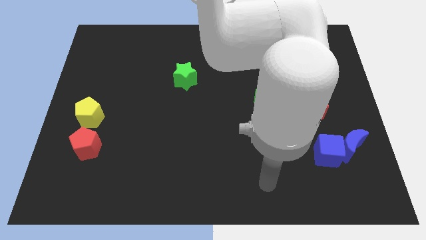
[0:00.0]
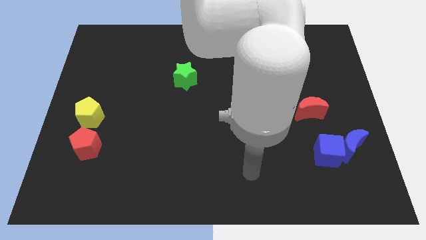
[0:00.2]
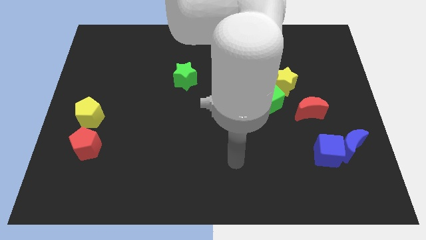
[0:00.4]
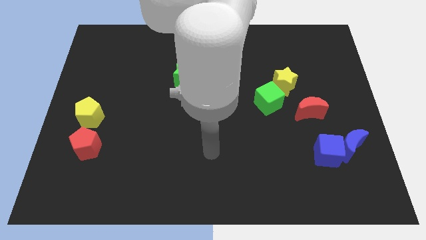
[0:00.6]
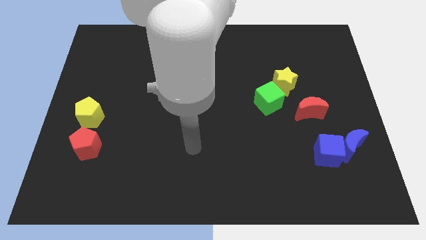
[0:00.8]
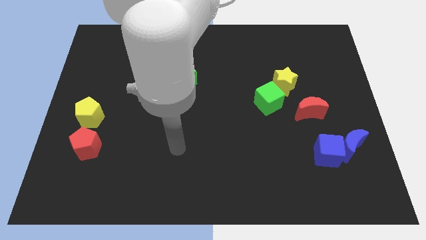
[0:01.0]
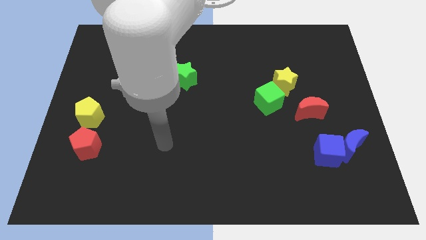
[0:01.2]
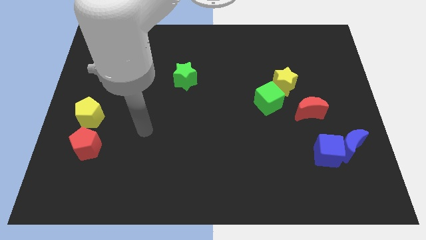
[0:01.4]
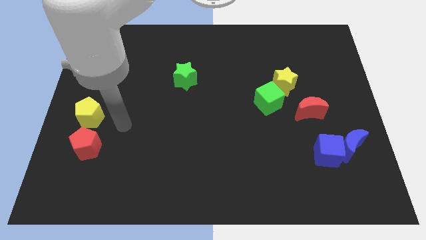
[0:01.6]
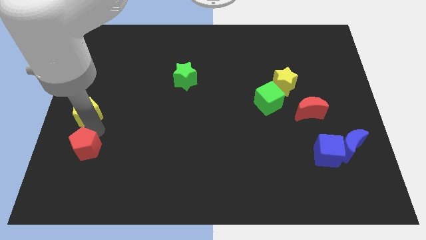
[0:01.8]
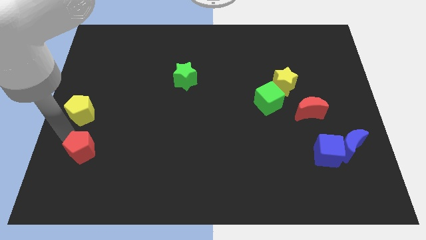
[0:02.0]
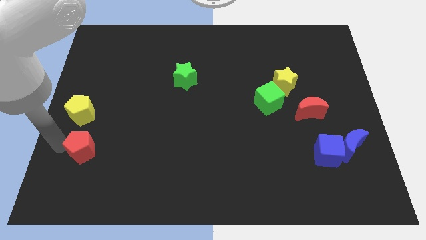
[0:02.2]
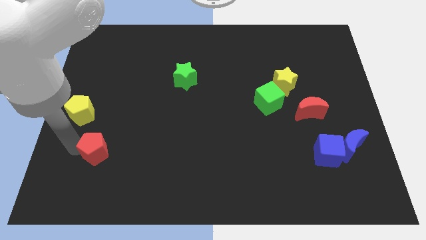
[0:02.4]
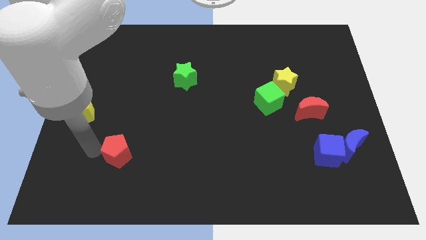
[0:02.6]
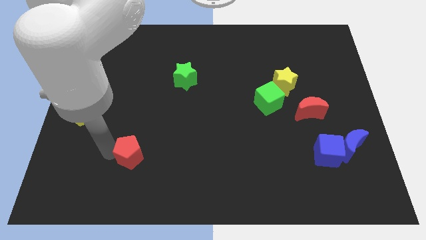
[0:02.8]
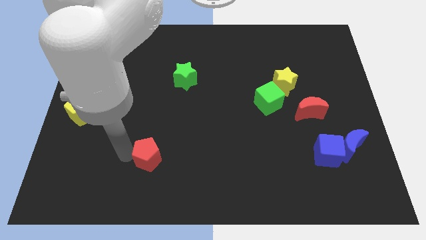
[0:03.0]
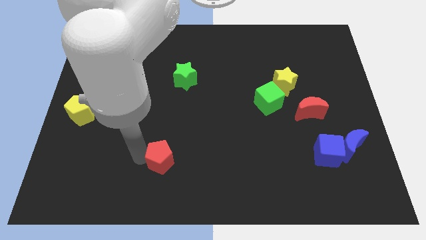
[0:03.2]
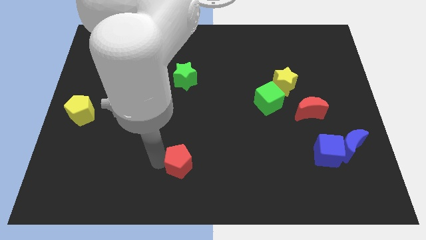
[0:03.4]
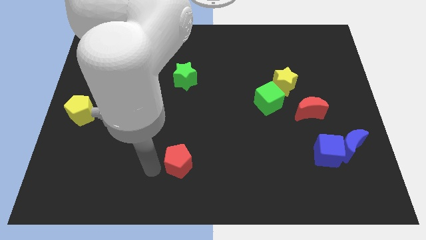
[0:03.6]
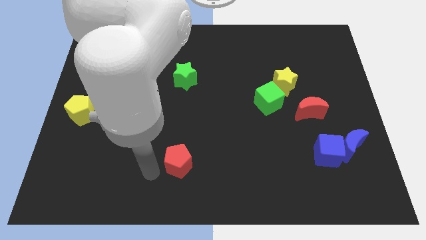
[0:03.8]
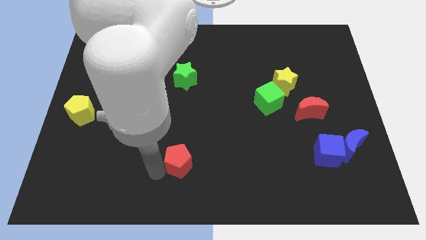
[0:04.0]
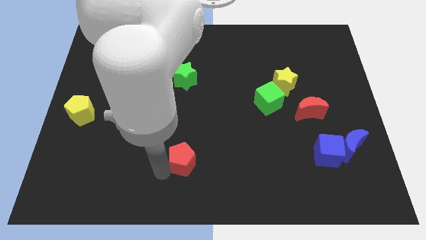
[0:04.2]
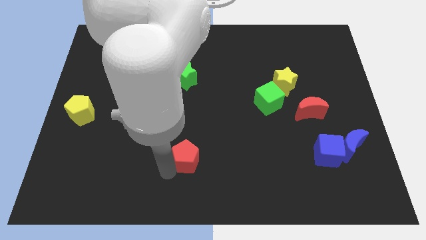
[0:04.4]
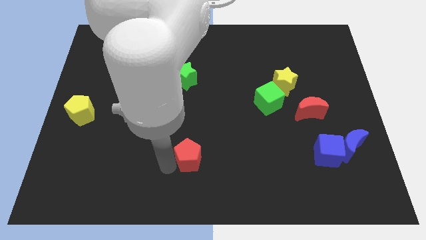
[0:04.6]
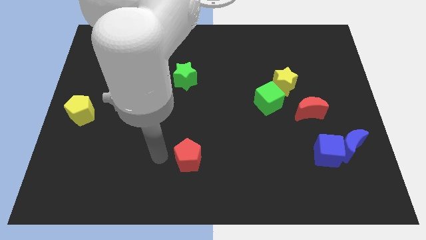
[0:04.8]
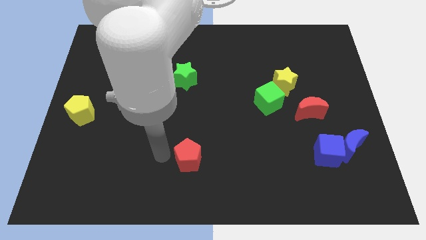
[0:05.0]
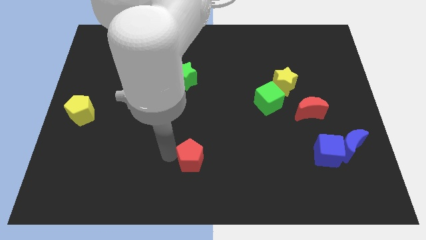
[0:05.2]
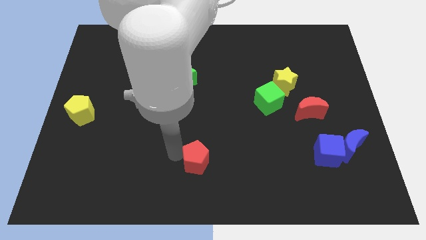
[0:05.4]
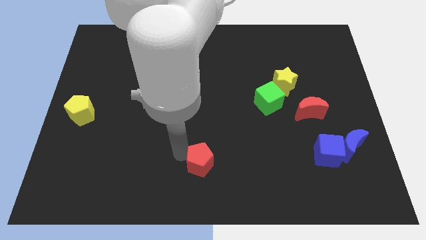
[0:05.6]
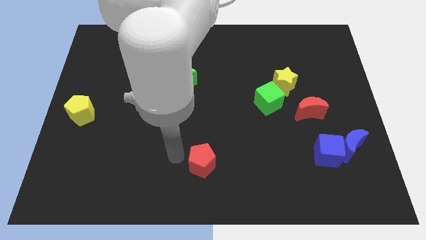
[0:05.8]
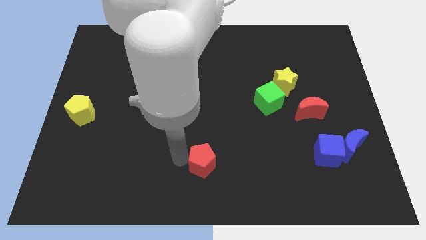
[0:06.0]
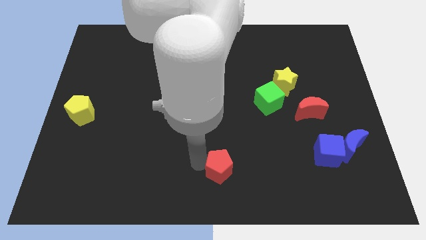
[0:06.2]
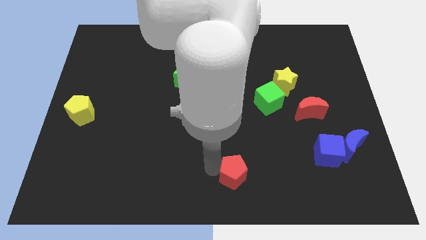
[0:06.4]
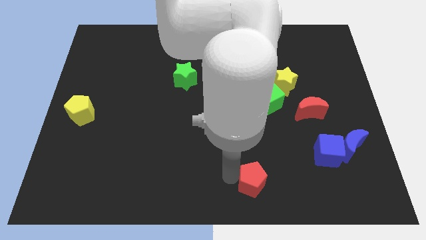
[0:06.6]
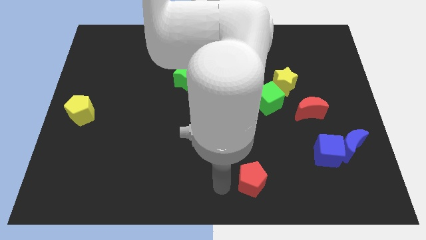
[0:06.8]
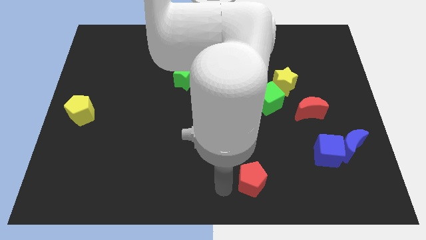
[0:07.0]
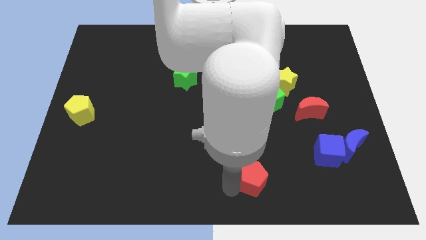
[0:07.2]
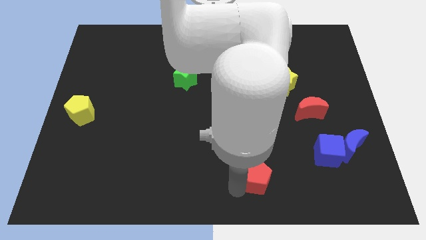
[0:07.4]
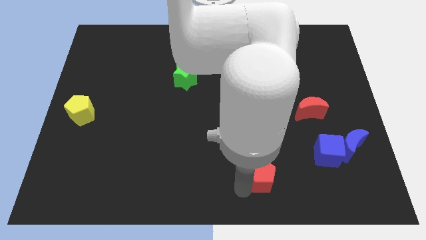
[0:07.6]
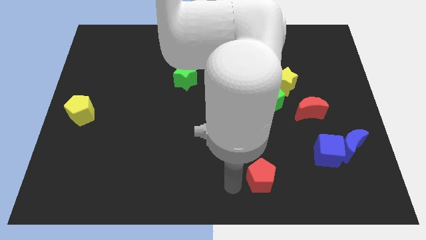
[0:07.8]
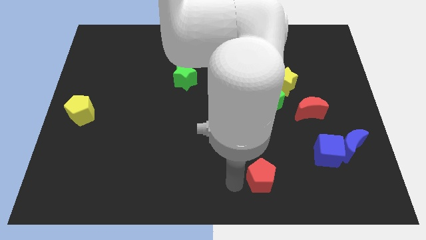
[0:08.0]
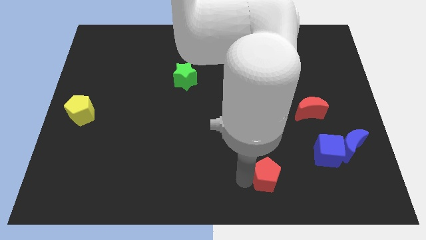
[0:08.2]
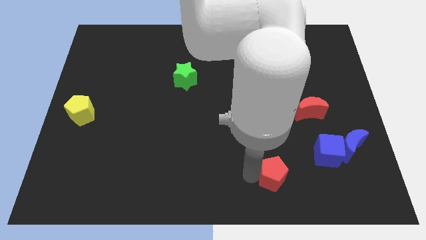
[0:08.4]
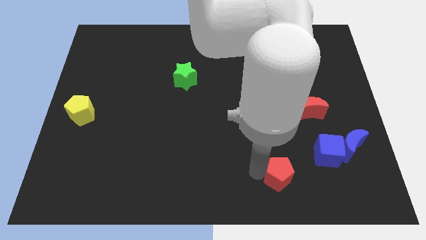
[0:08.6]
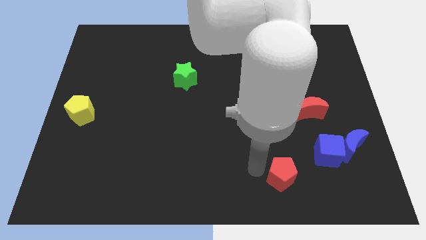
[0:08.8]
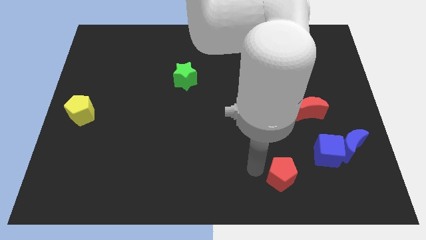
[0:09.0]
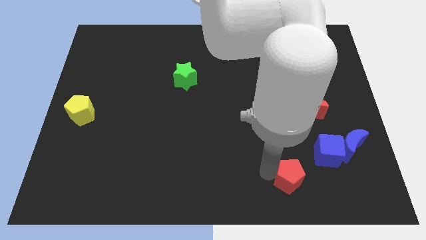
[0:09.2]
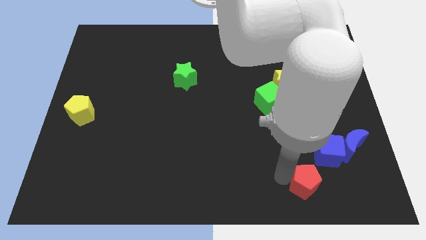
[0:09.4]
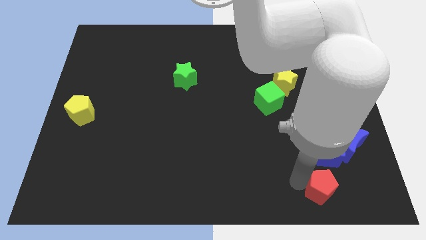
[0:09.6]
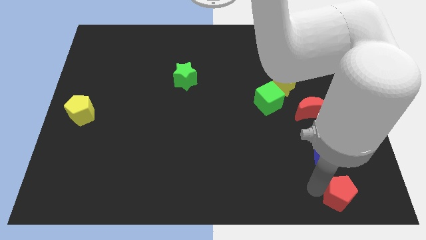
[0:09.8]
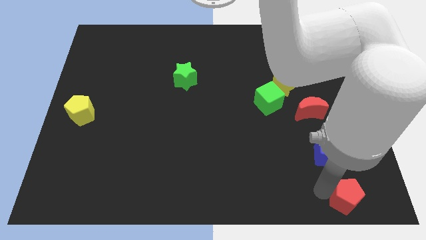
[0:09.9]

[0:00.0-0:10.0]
push the red pentagon to the bottom right of the board

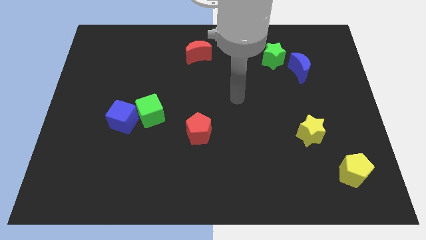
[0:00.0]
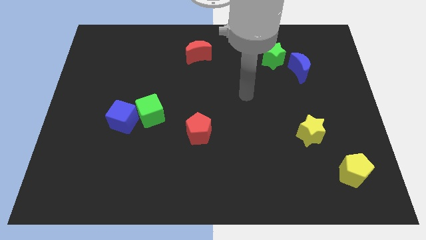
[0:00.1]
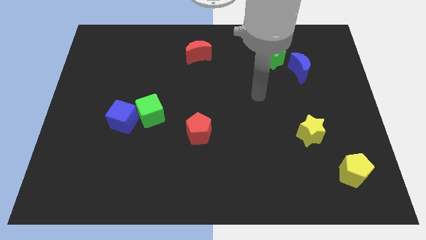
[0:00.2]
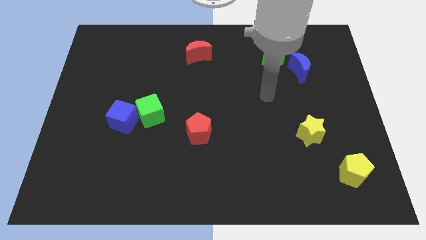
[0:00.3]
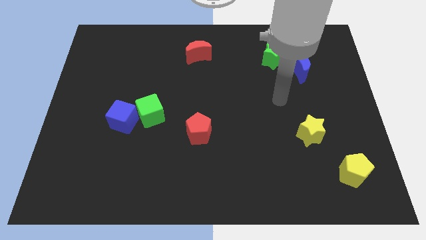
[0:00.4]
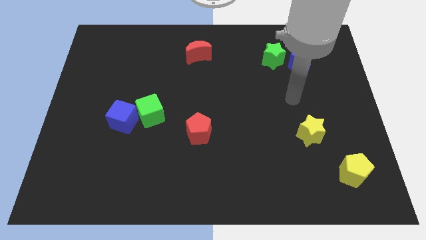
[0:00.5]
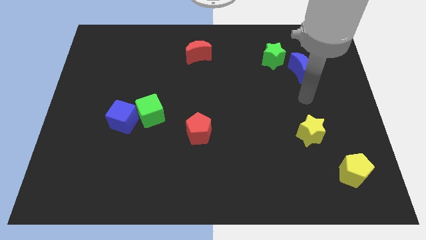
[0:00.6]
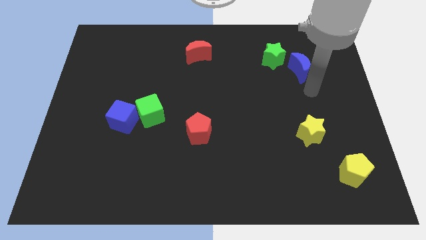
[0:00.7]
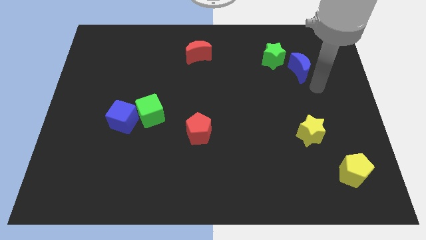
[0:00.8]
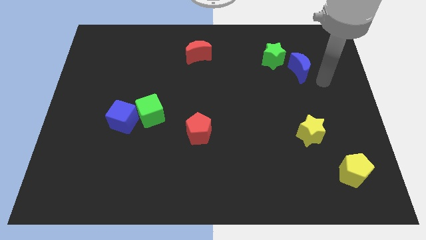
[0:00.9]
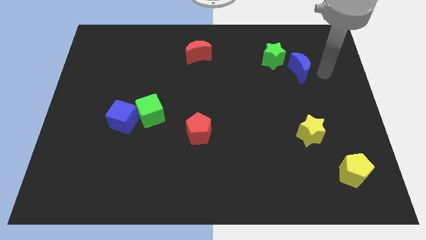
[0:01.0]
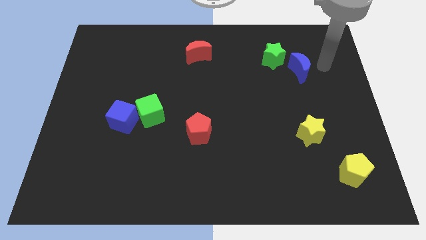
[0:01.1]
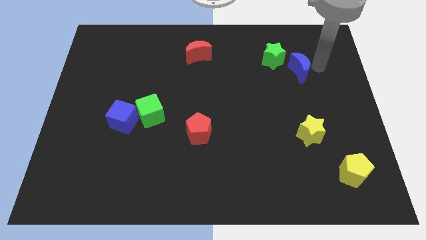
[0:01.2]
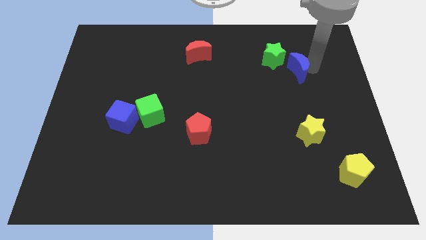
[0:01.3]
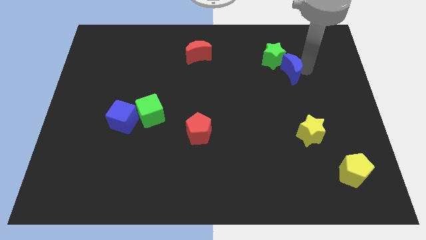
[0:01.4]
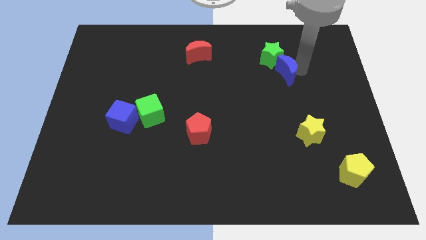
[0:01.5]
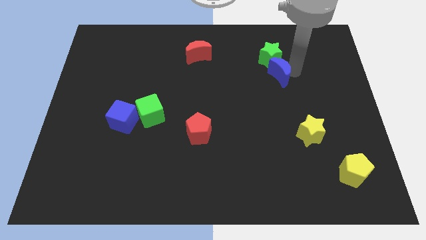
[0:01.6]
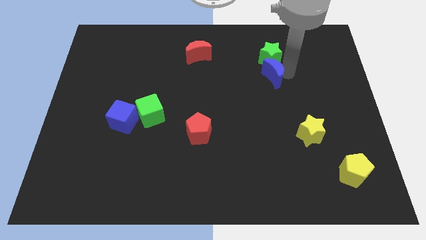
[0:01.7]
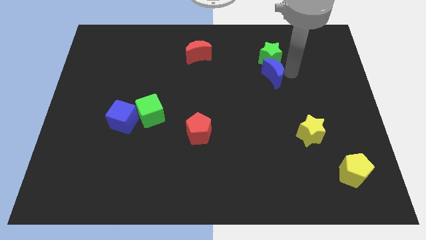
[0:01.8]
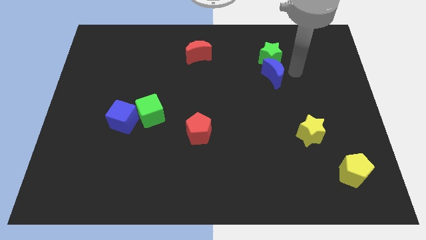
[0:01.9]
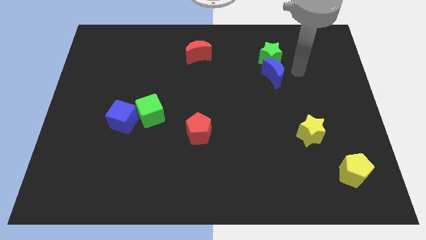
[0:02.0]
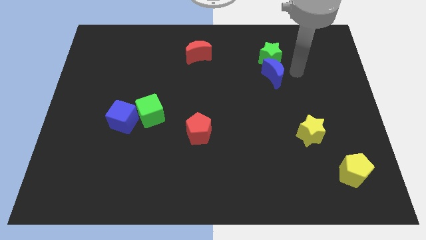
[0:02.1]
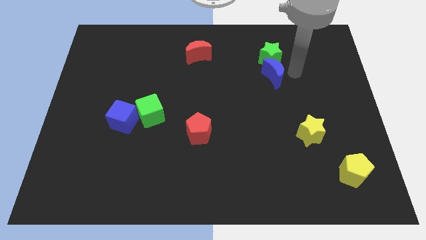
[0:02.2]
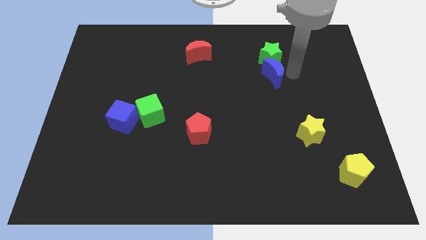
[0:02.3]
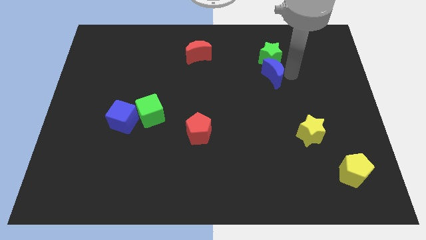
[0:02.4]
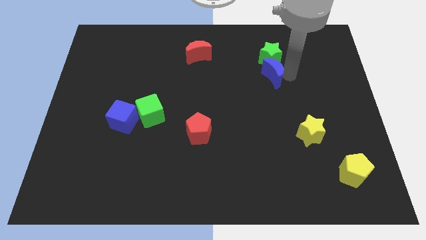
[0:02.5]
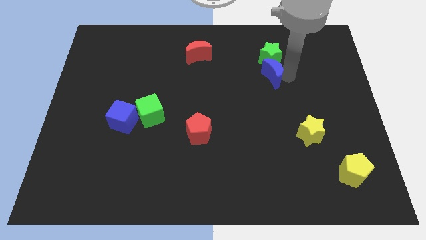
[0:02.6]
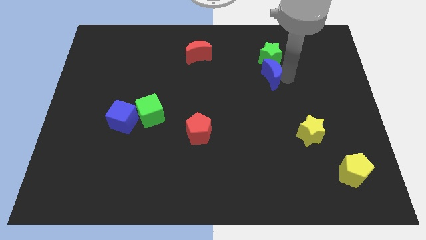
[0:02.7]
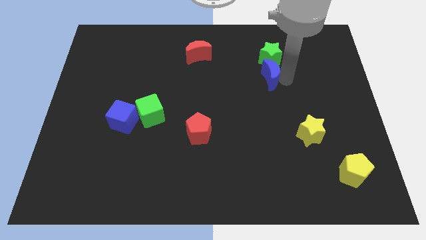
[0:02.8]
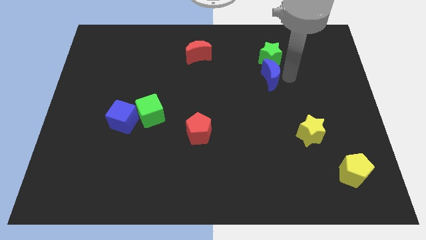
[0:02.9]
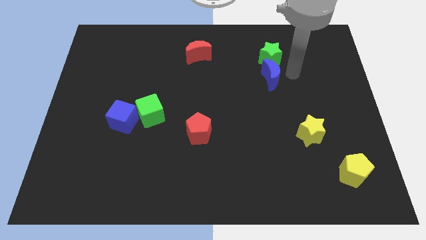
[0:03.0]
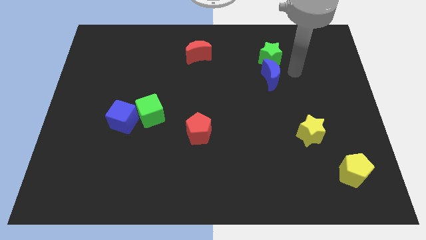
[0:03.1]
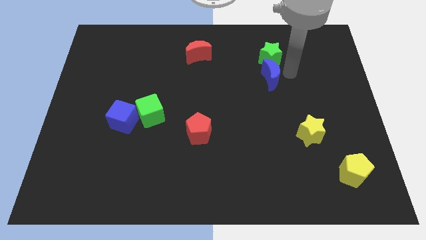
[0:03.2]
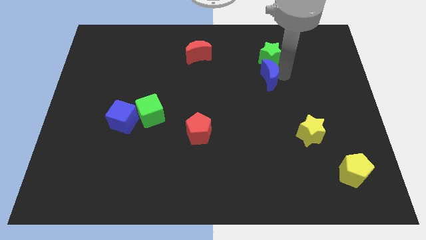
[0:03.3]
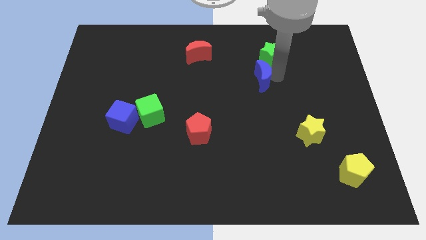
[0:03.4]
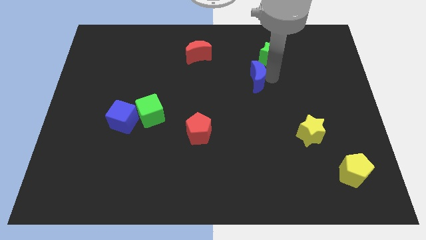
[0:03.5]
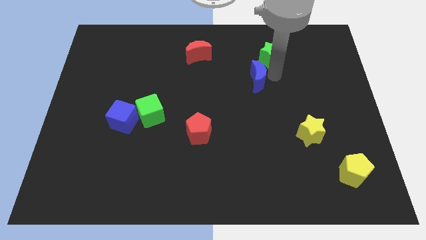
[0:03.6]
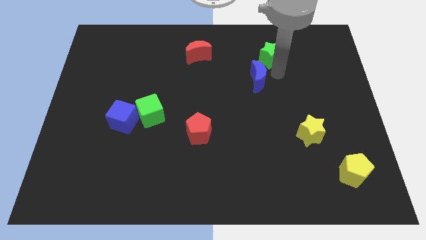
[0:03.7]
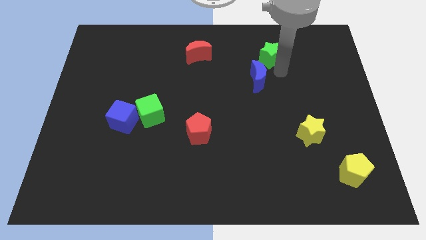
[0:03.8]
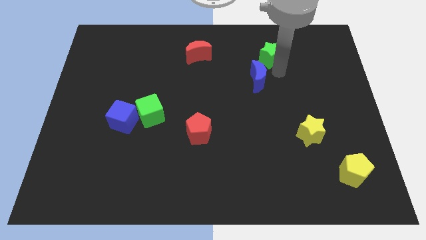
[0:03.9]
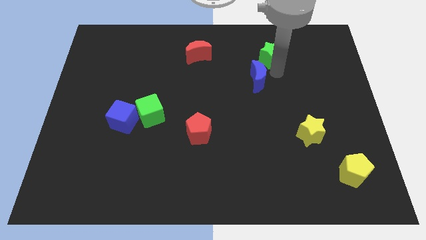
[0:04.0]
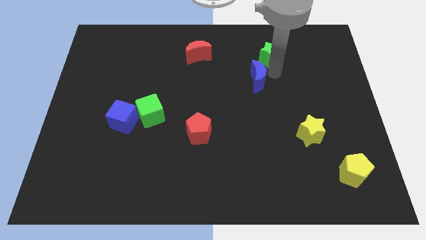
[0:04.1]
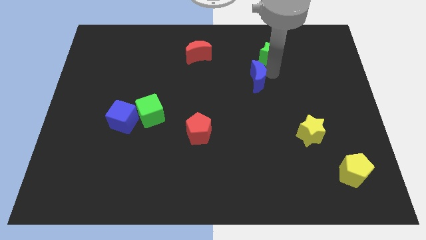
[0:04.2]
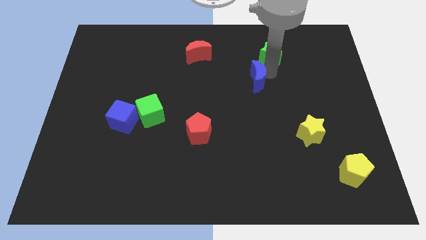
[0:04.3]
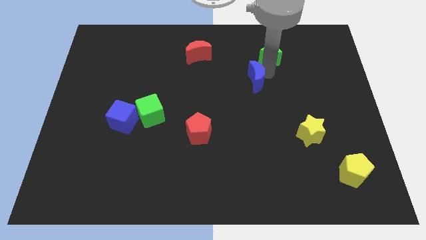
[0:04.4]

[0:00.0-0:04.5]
slide the blue moon to the center
